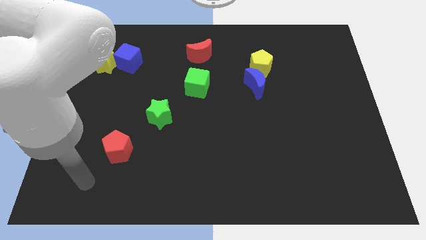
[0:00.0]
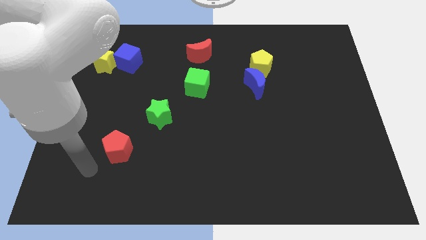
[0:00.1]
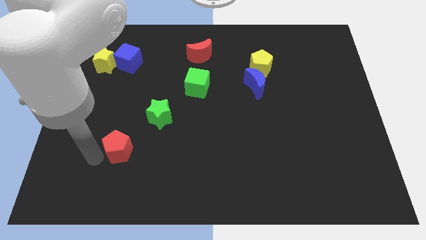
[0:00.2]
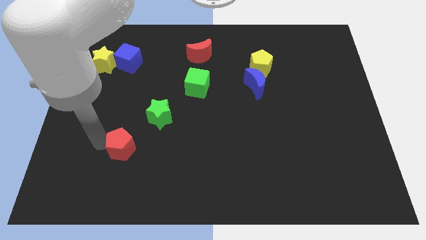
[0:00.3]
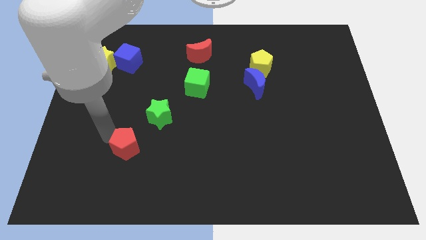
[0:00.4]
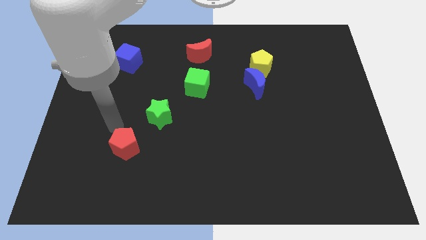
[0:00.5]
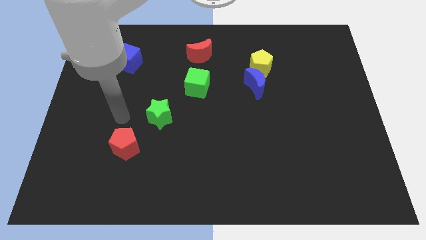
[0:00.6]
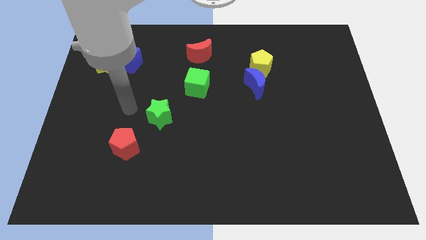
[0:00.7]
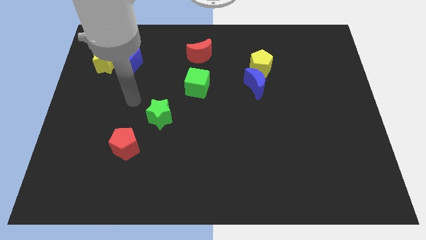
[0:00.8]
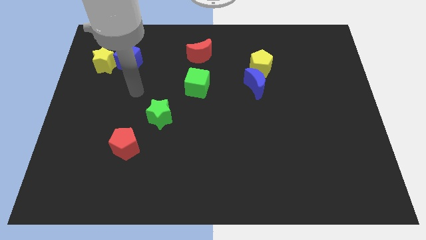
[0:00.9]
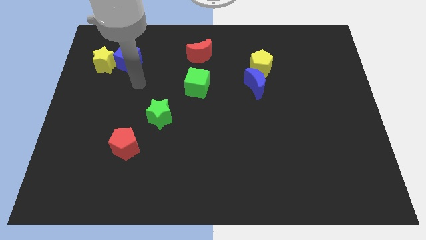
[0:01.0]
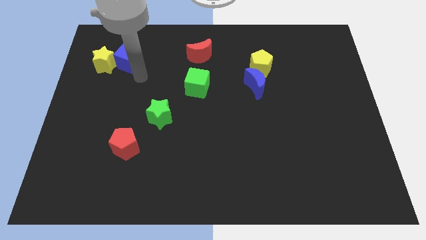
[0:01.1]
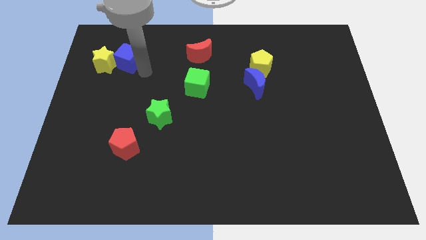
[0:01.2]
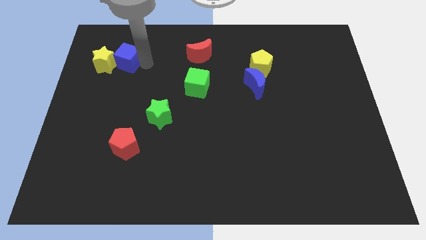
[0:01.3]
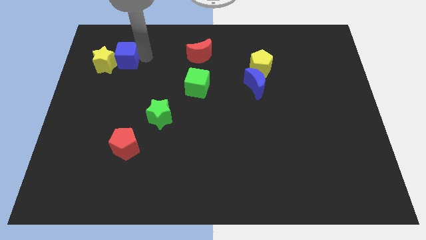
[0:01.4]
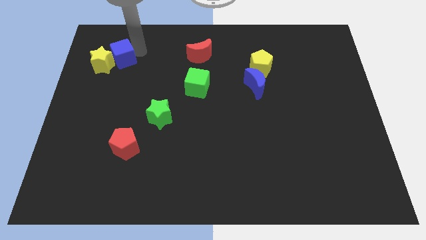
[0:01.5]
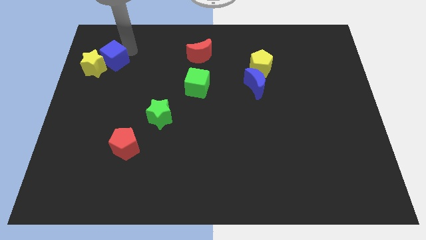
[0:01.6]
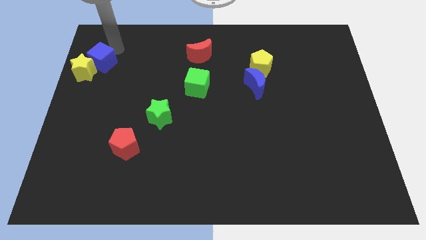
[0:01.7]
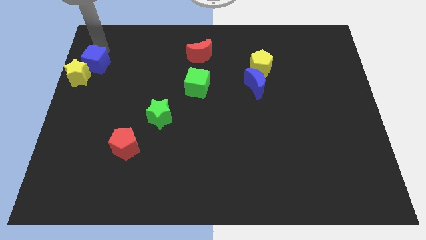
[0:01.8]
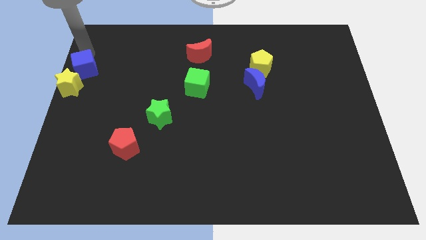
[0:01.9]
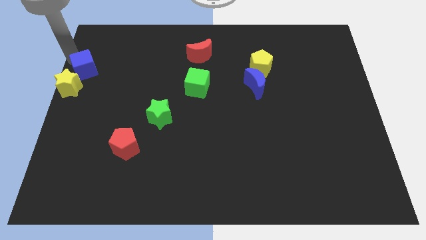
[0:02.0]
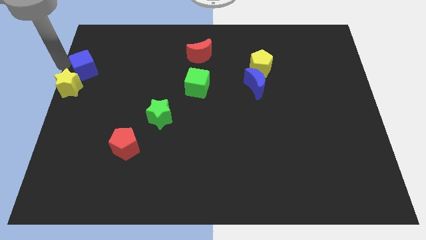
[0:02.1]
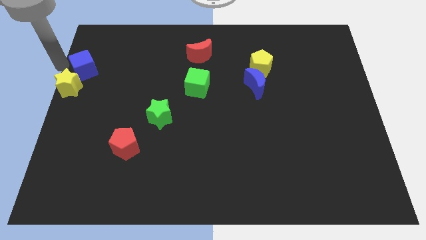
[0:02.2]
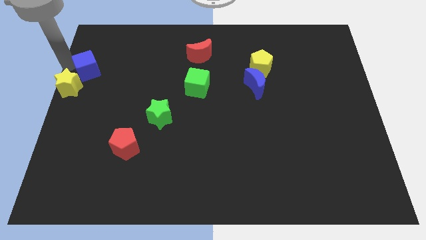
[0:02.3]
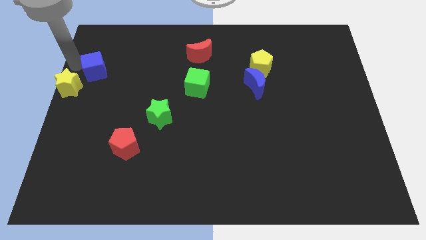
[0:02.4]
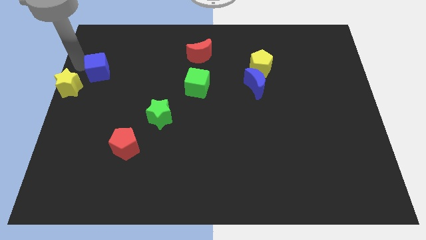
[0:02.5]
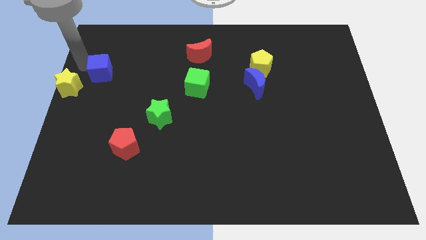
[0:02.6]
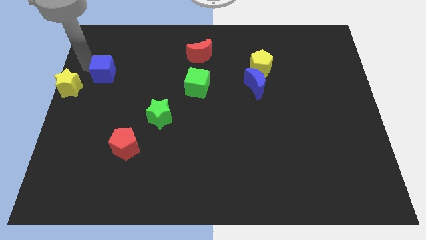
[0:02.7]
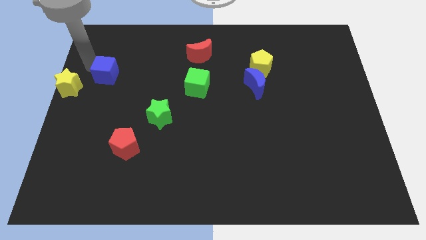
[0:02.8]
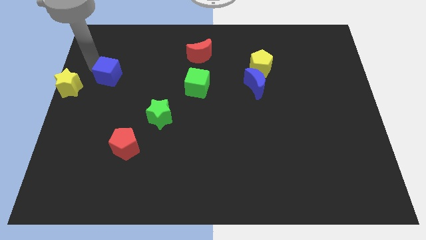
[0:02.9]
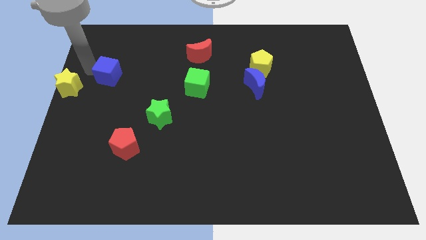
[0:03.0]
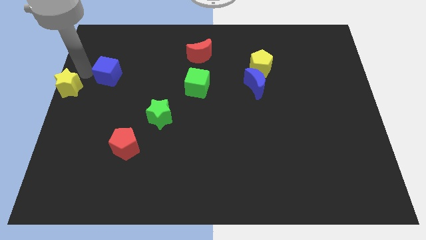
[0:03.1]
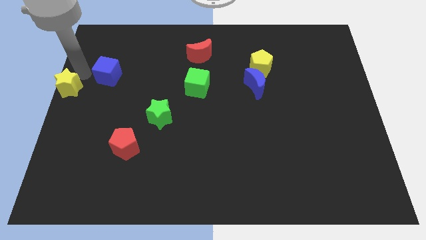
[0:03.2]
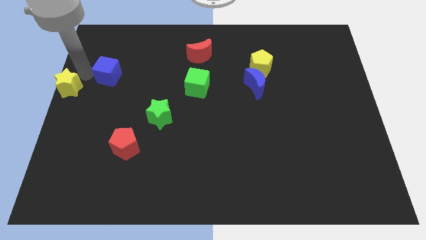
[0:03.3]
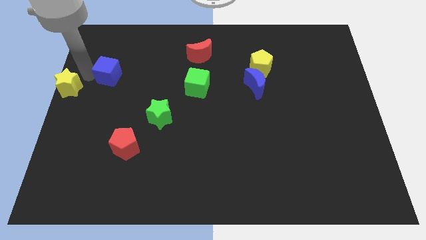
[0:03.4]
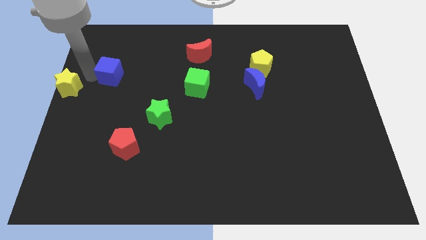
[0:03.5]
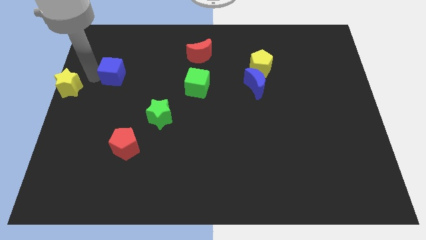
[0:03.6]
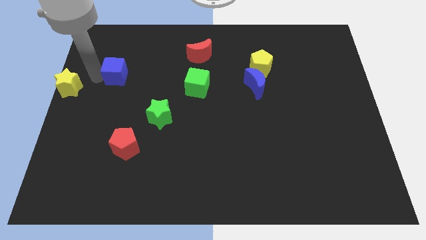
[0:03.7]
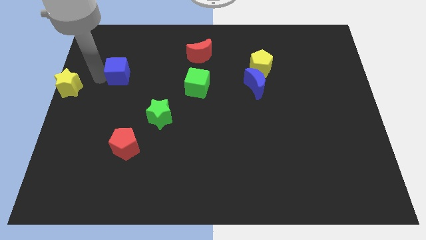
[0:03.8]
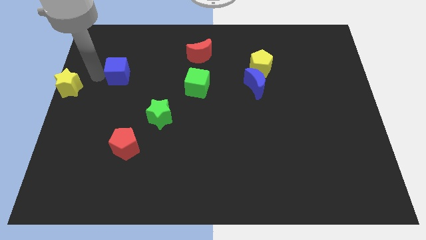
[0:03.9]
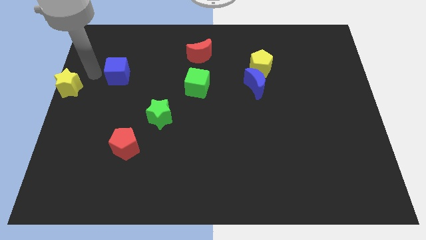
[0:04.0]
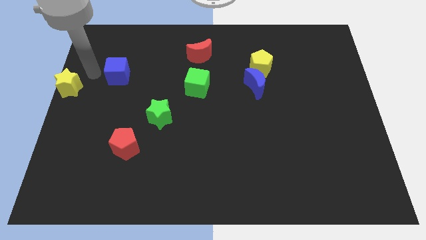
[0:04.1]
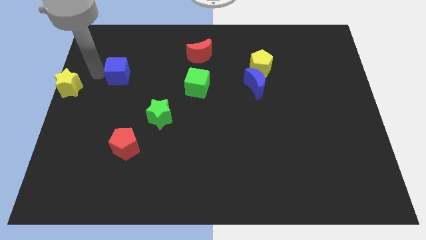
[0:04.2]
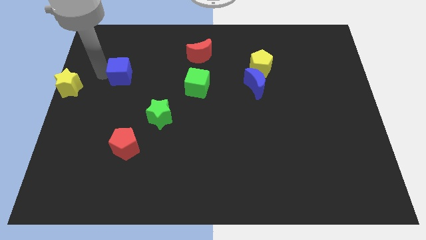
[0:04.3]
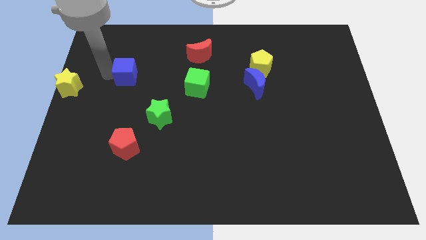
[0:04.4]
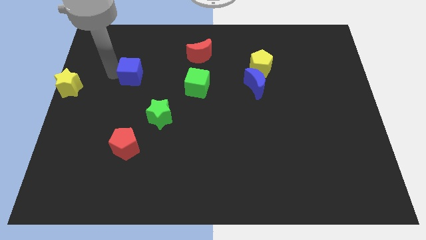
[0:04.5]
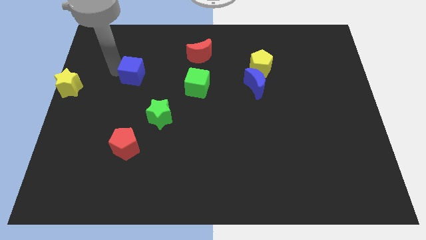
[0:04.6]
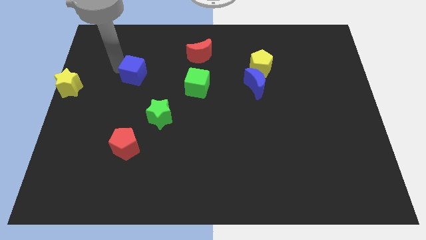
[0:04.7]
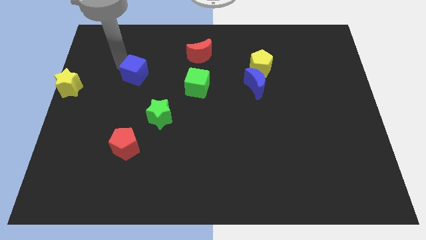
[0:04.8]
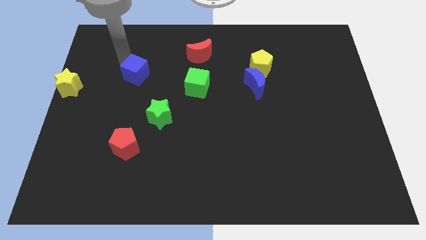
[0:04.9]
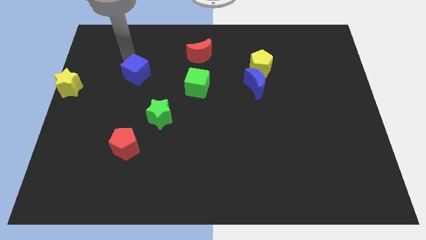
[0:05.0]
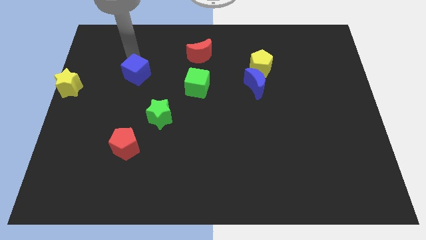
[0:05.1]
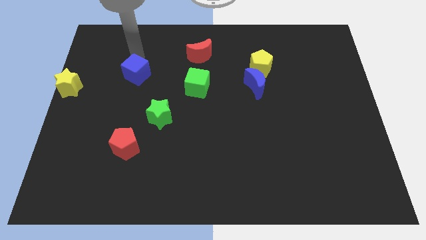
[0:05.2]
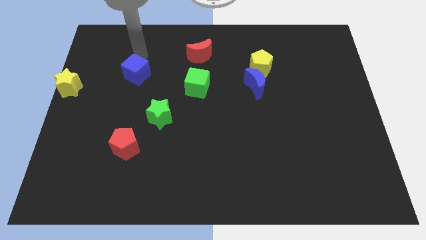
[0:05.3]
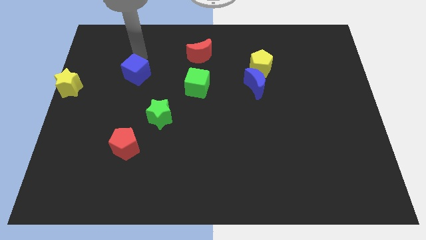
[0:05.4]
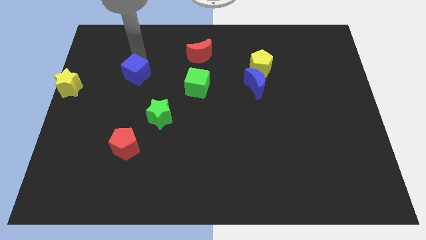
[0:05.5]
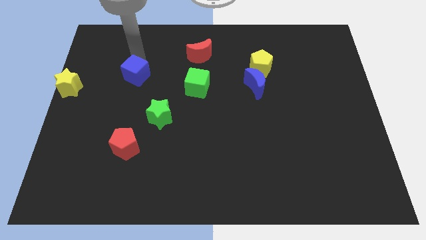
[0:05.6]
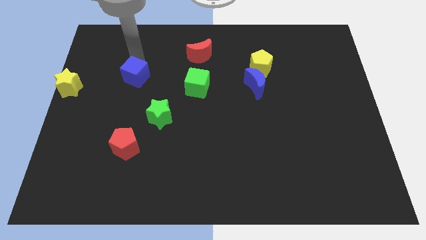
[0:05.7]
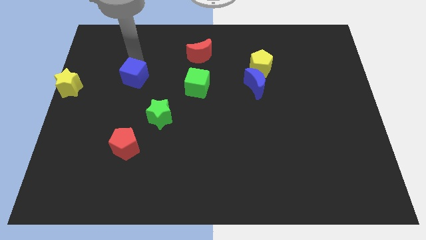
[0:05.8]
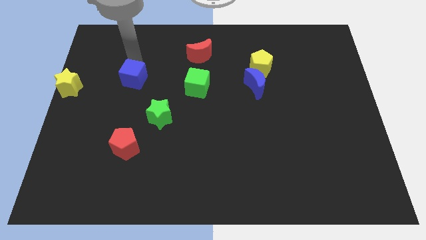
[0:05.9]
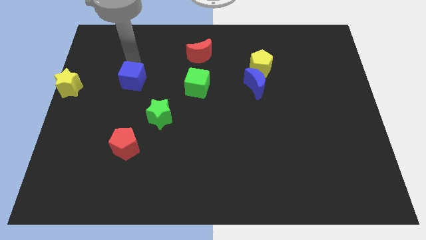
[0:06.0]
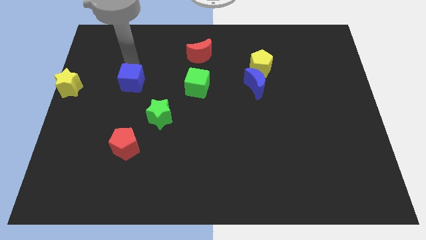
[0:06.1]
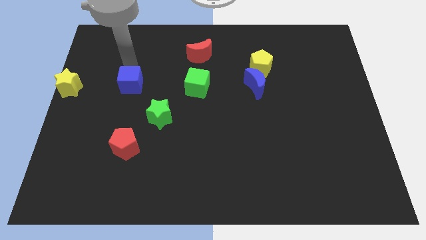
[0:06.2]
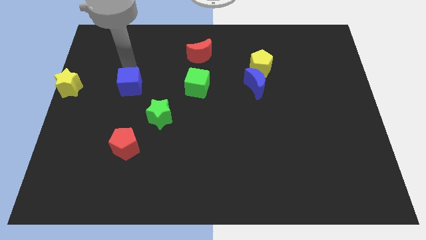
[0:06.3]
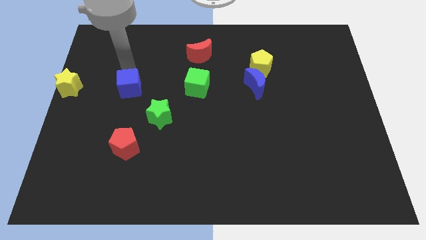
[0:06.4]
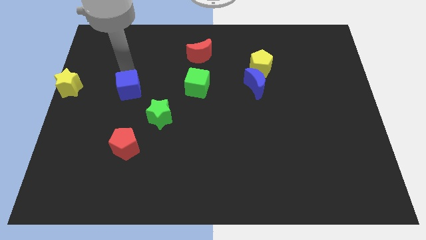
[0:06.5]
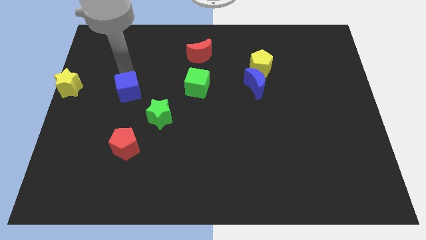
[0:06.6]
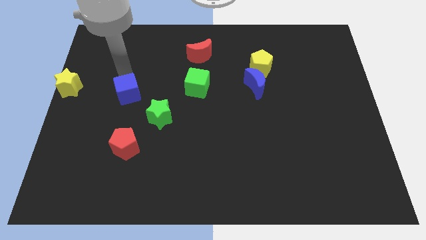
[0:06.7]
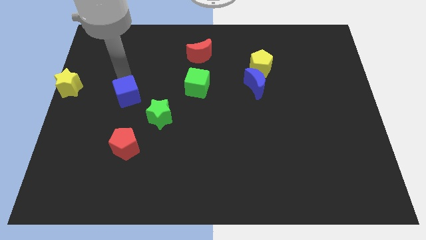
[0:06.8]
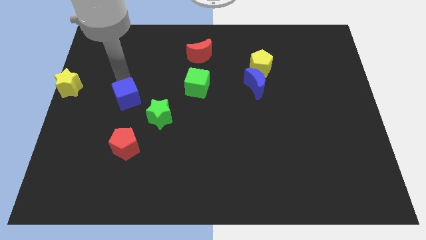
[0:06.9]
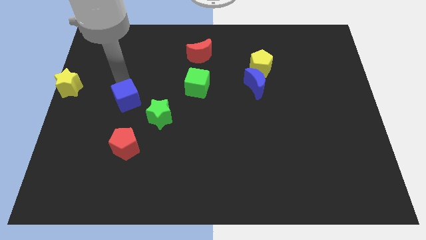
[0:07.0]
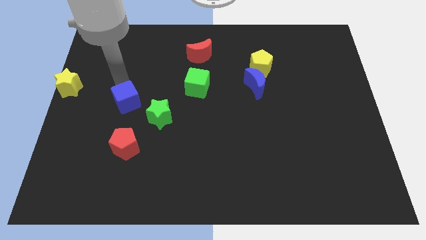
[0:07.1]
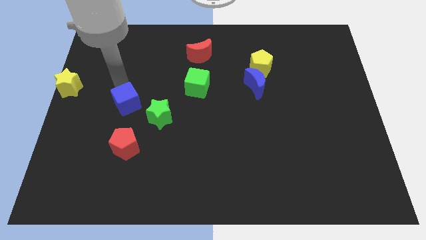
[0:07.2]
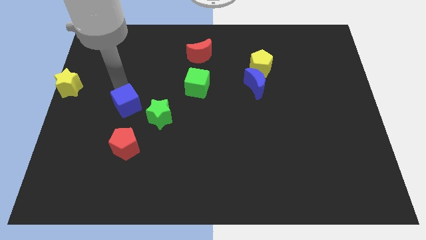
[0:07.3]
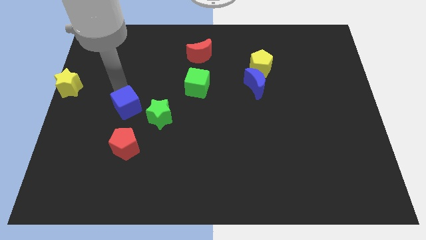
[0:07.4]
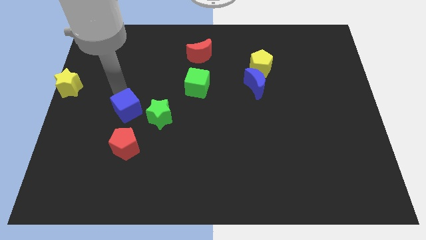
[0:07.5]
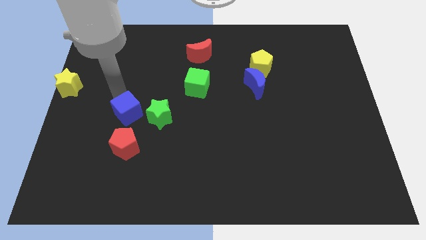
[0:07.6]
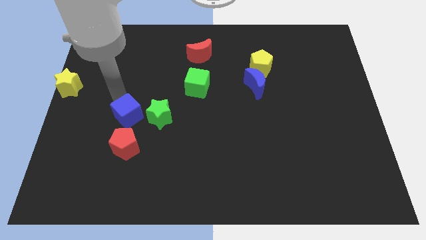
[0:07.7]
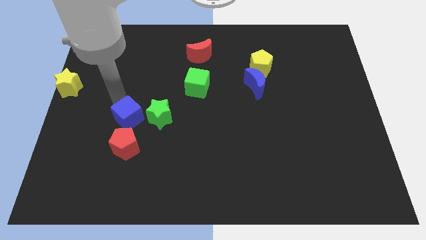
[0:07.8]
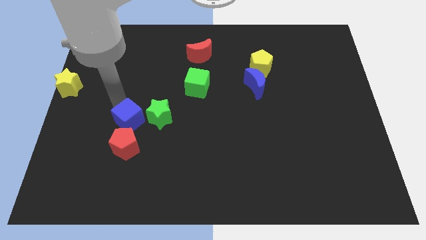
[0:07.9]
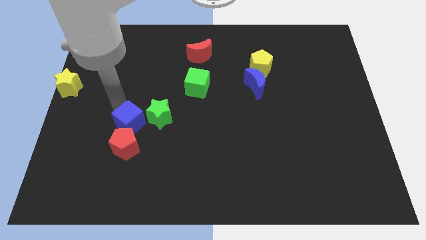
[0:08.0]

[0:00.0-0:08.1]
put the blue cube to the top right of the red pentagon
